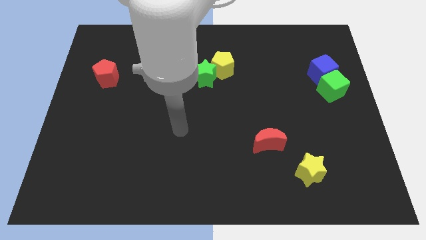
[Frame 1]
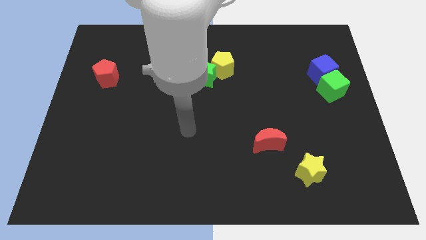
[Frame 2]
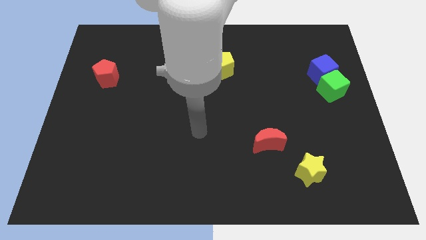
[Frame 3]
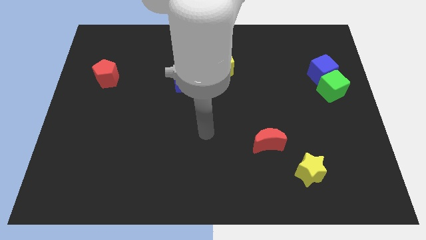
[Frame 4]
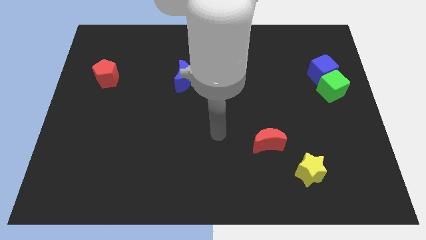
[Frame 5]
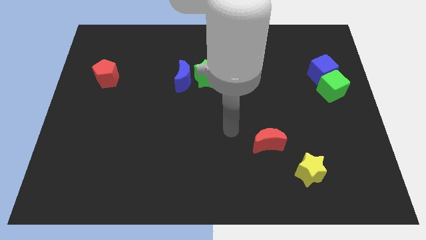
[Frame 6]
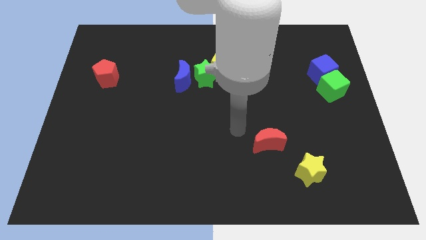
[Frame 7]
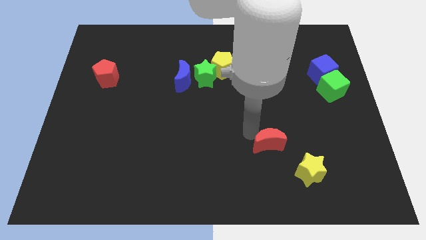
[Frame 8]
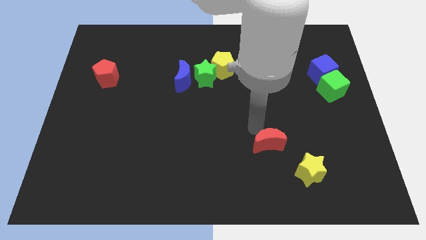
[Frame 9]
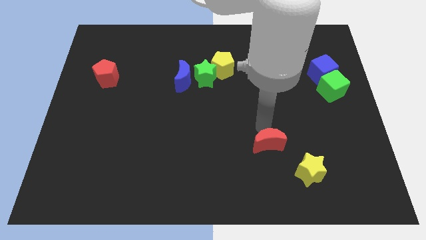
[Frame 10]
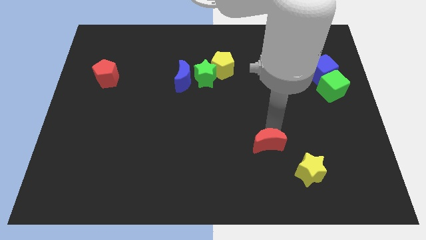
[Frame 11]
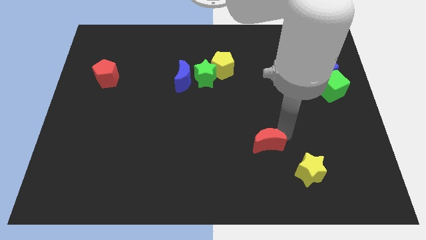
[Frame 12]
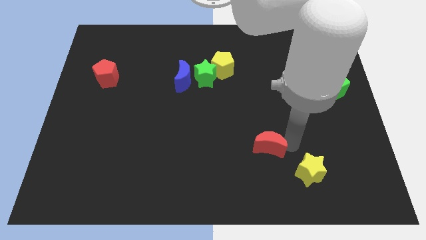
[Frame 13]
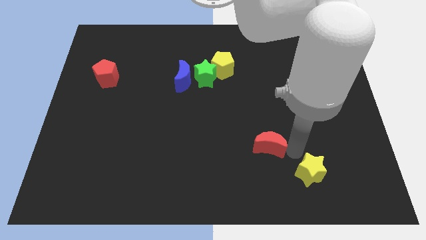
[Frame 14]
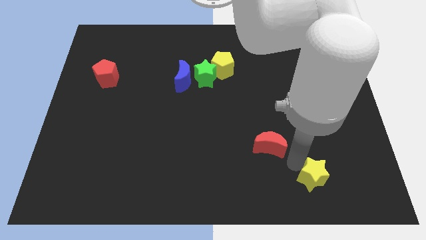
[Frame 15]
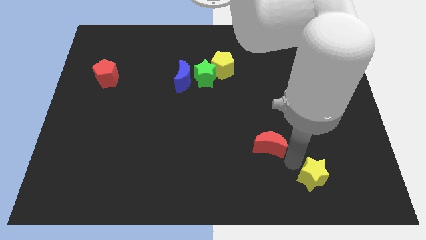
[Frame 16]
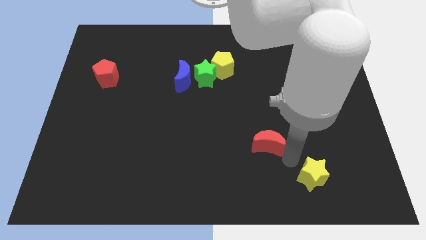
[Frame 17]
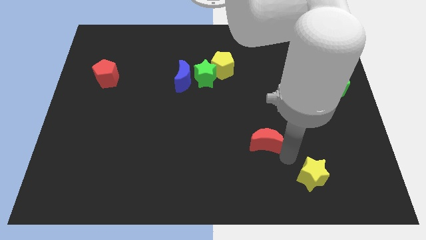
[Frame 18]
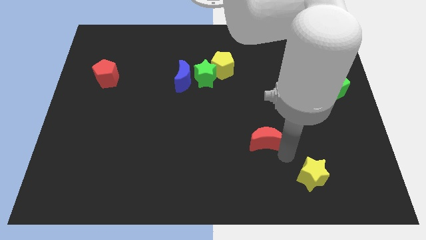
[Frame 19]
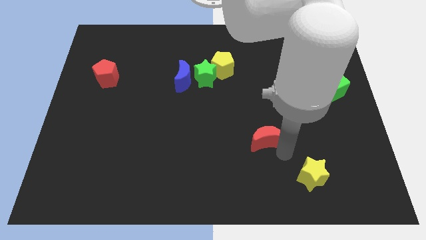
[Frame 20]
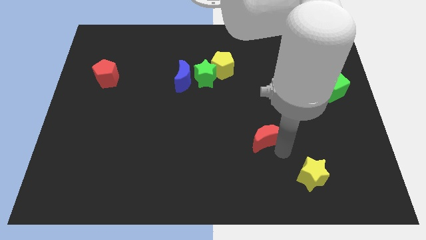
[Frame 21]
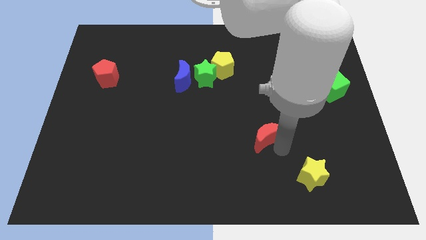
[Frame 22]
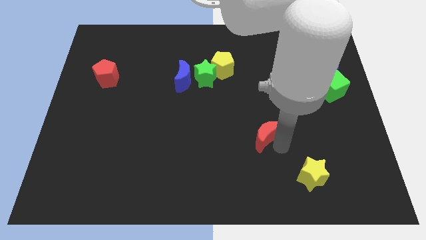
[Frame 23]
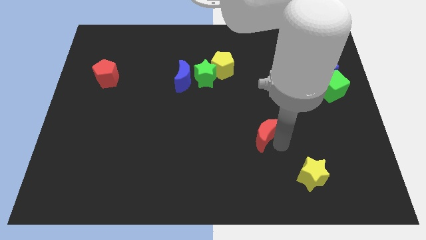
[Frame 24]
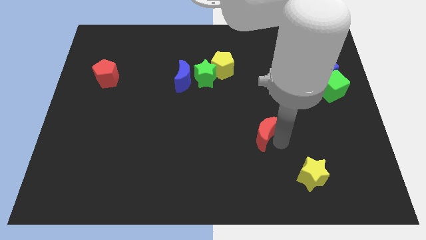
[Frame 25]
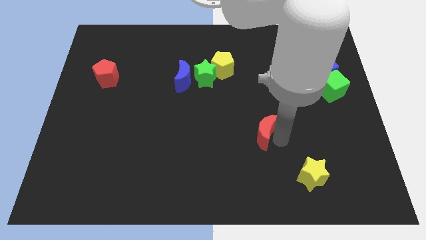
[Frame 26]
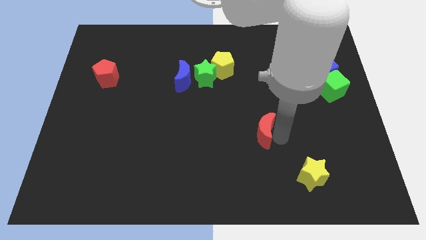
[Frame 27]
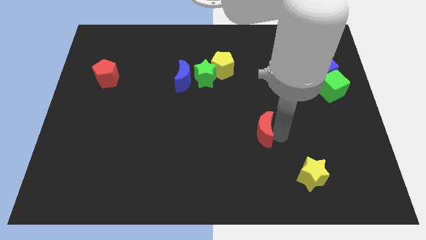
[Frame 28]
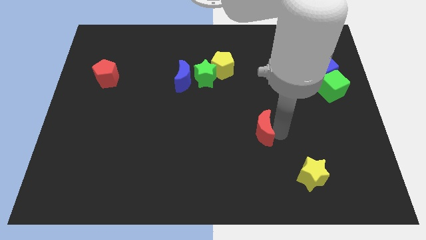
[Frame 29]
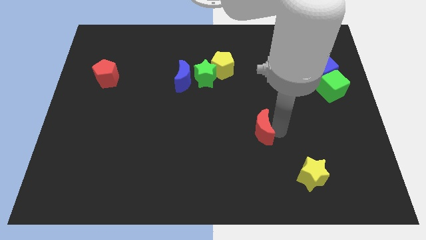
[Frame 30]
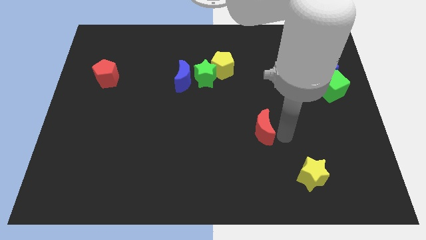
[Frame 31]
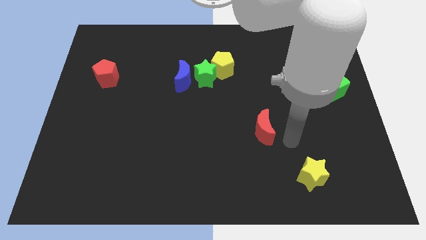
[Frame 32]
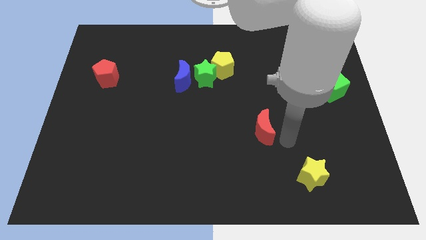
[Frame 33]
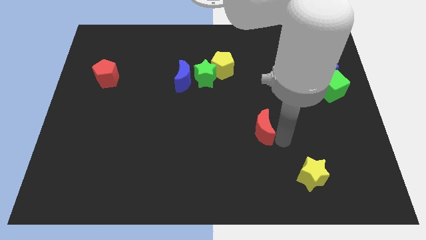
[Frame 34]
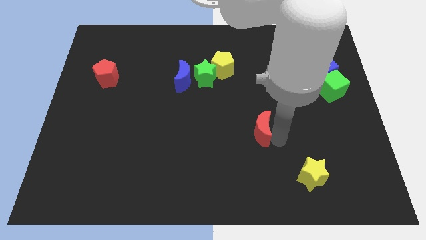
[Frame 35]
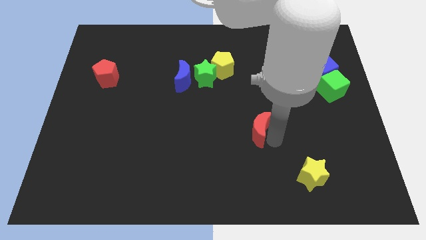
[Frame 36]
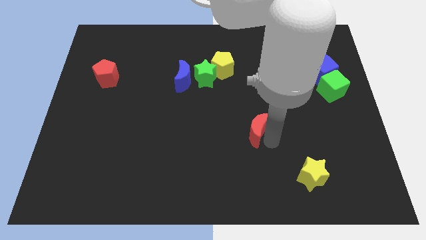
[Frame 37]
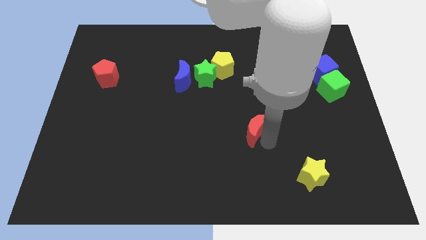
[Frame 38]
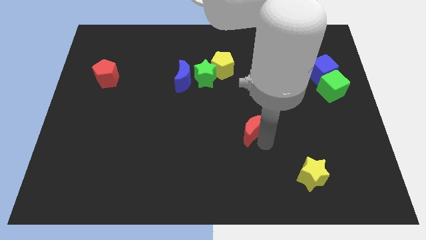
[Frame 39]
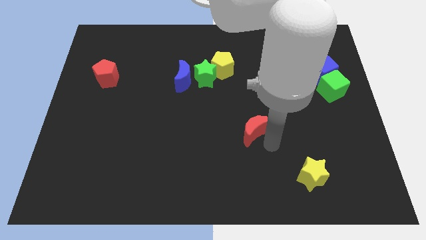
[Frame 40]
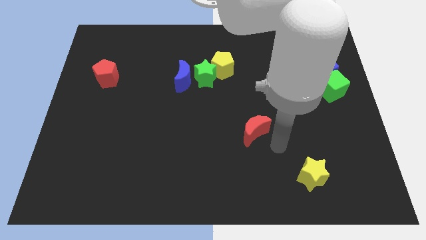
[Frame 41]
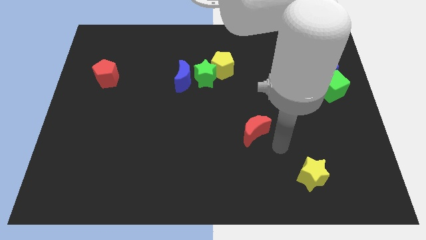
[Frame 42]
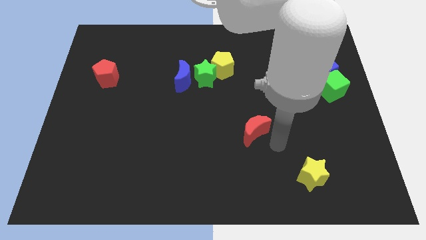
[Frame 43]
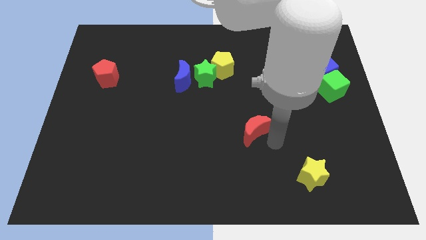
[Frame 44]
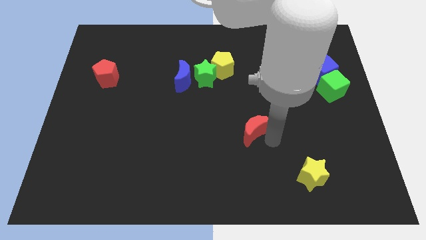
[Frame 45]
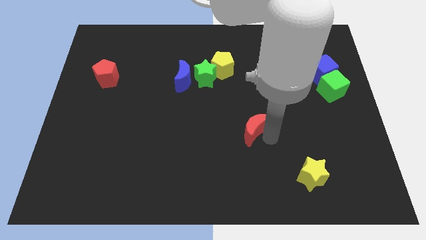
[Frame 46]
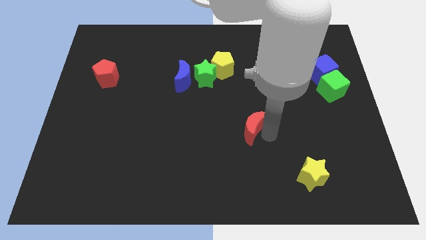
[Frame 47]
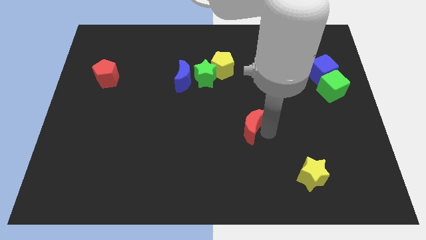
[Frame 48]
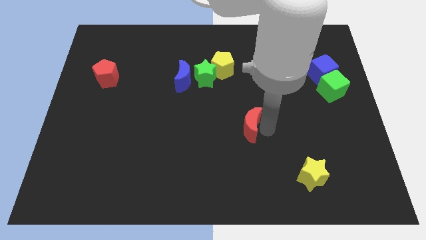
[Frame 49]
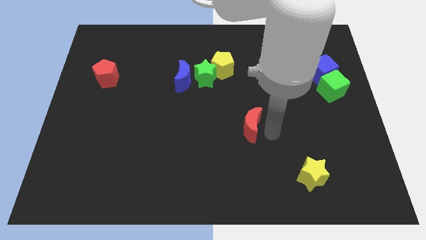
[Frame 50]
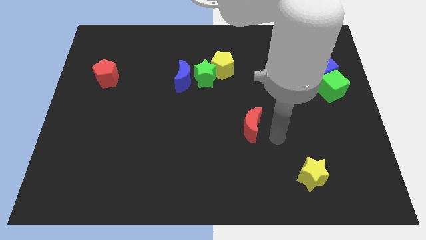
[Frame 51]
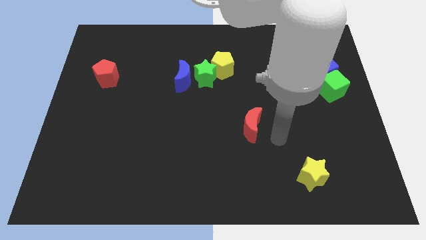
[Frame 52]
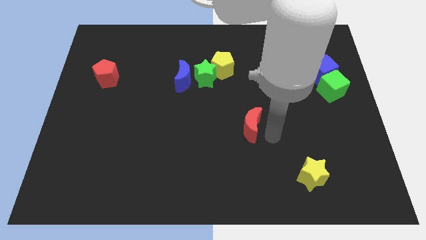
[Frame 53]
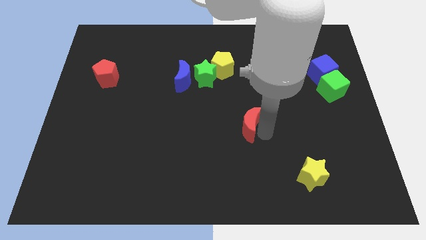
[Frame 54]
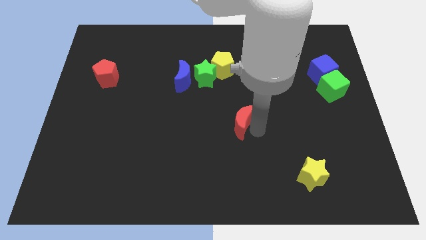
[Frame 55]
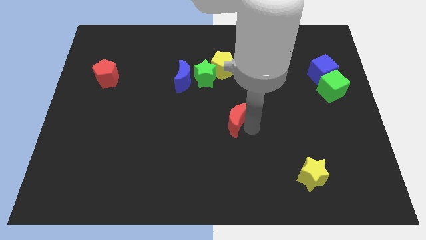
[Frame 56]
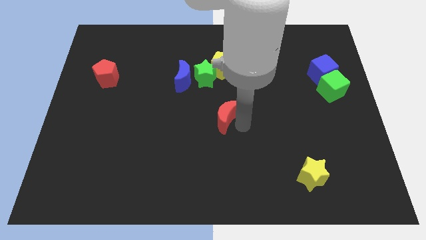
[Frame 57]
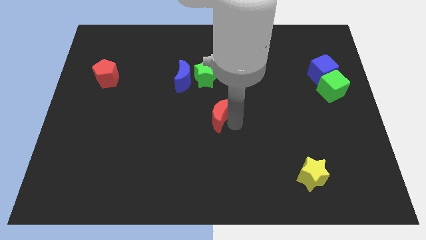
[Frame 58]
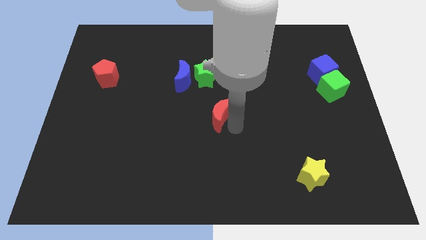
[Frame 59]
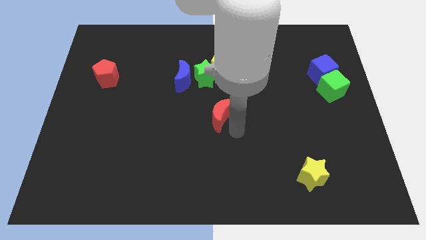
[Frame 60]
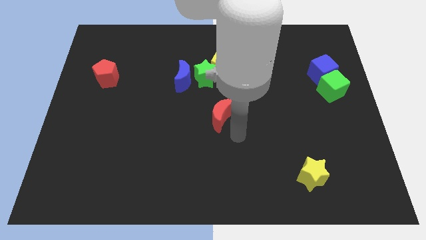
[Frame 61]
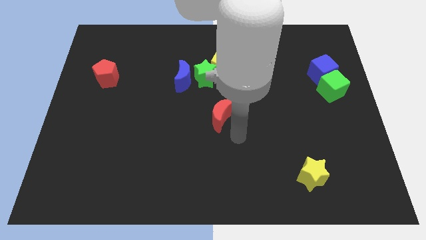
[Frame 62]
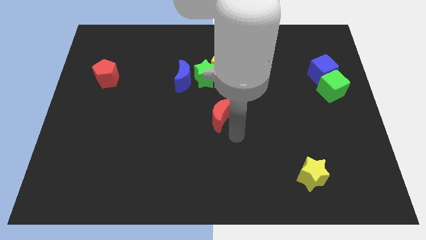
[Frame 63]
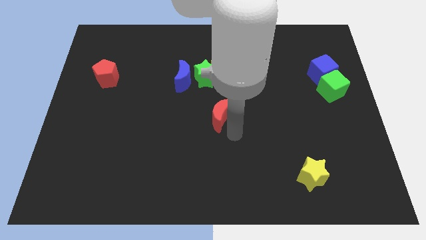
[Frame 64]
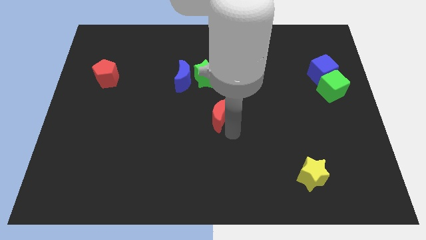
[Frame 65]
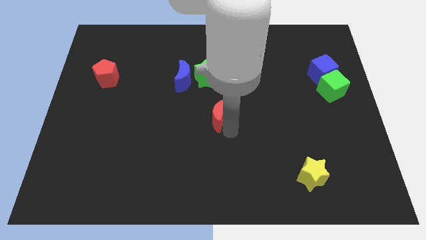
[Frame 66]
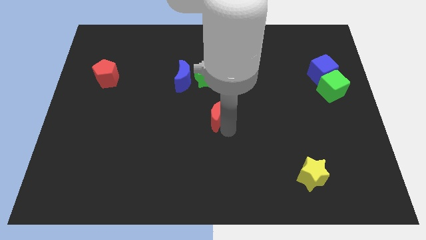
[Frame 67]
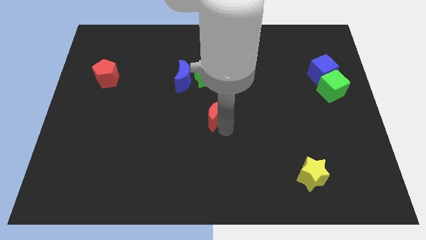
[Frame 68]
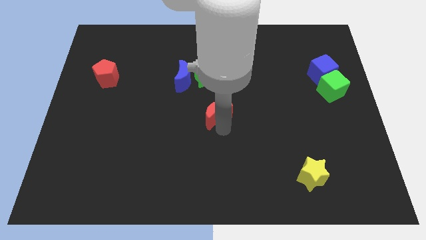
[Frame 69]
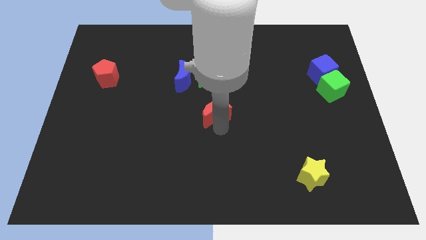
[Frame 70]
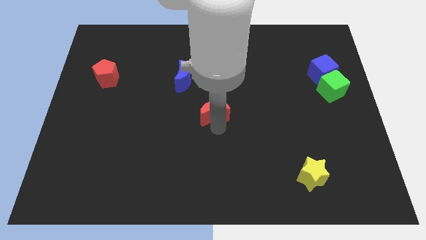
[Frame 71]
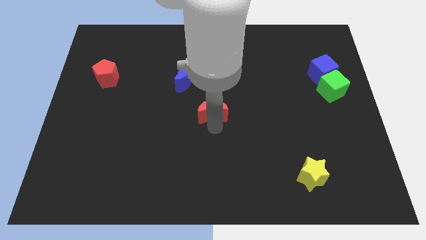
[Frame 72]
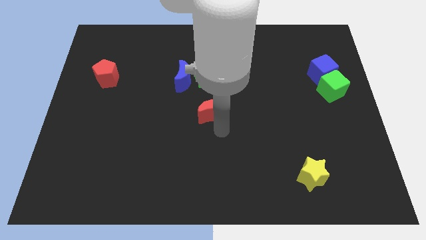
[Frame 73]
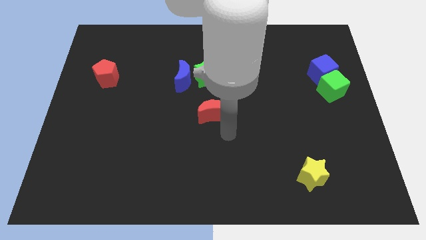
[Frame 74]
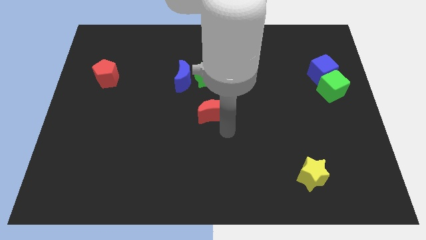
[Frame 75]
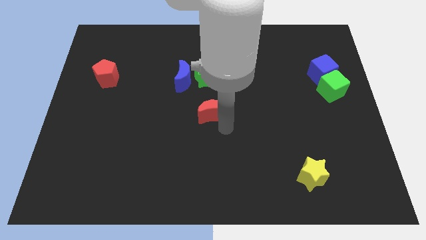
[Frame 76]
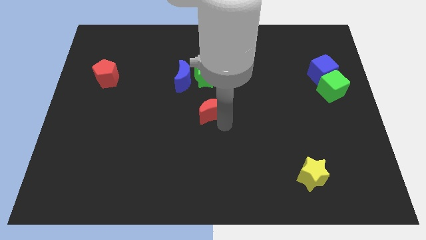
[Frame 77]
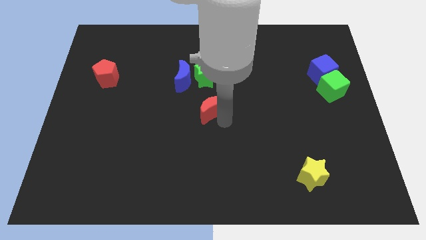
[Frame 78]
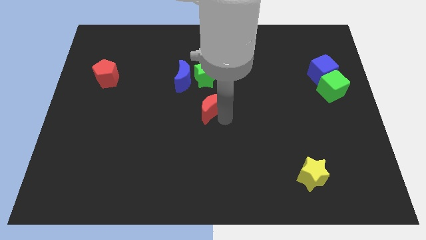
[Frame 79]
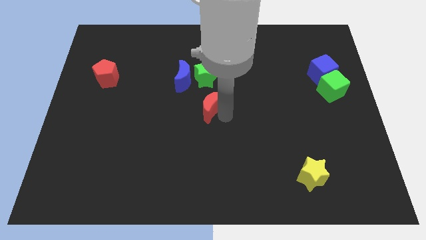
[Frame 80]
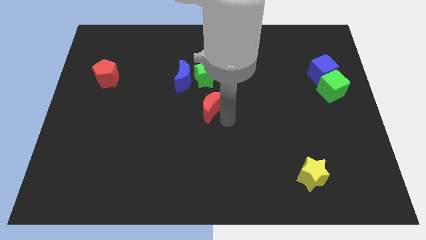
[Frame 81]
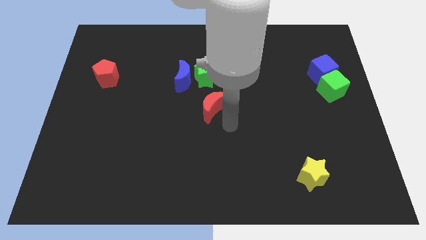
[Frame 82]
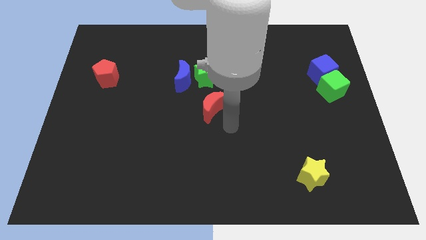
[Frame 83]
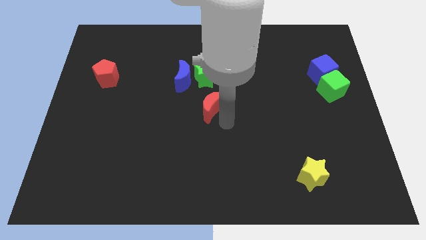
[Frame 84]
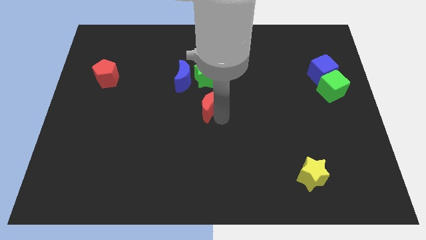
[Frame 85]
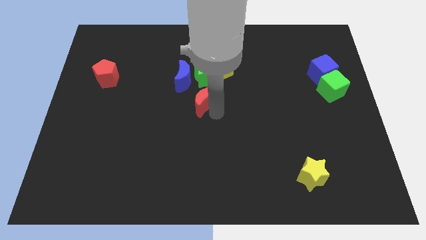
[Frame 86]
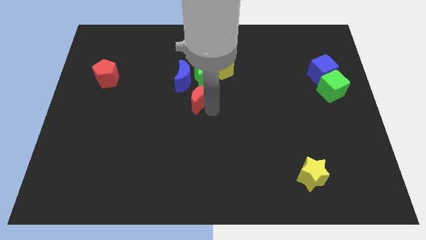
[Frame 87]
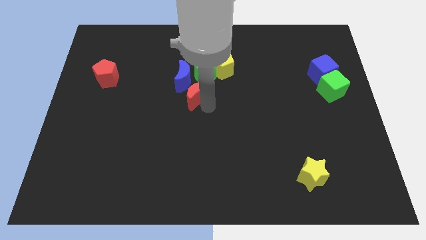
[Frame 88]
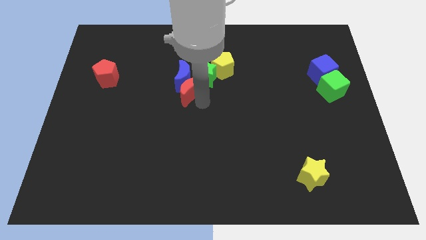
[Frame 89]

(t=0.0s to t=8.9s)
move the red moon towards the blue moon
